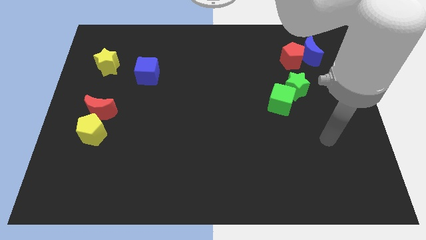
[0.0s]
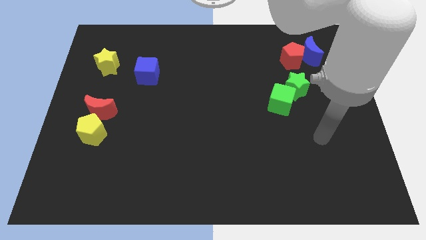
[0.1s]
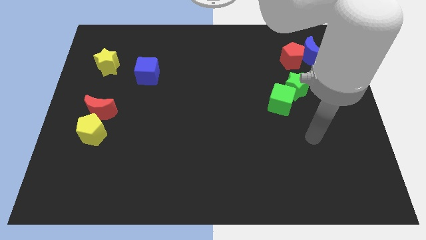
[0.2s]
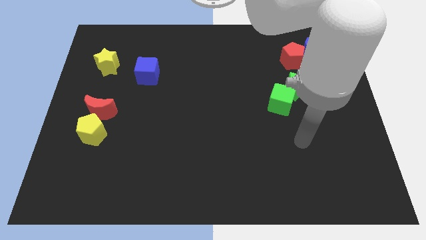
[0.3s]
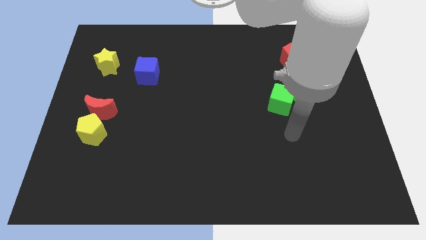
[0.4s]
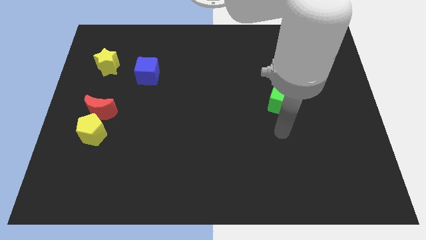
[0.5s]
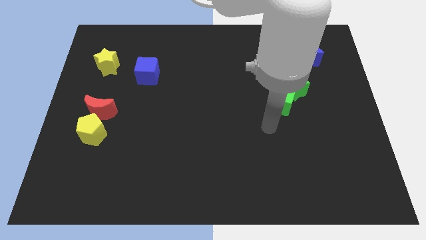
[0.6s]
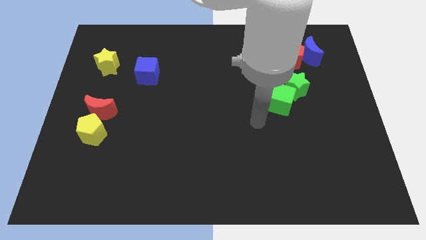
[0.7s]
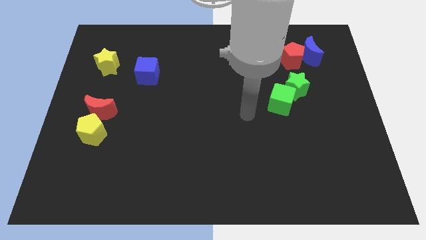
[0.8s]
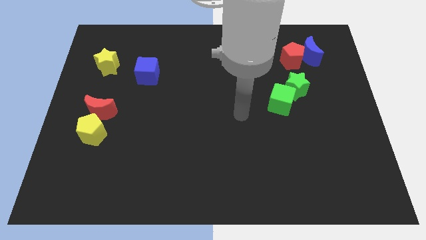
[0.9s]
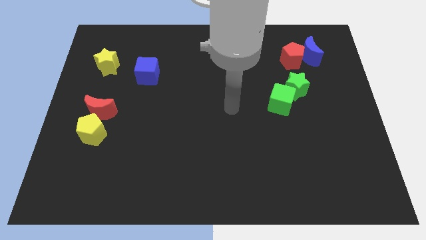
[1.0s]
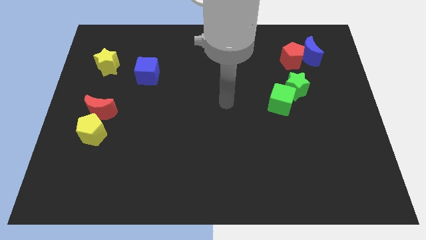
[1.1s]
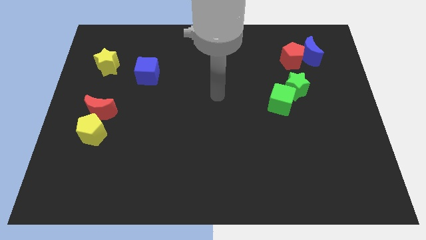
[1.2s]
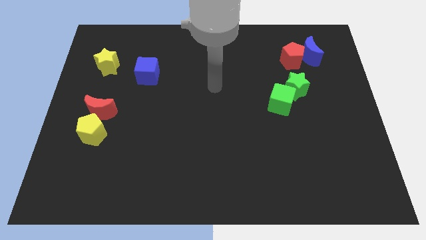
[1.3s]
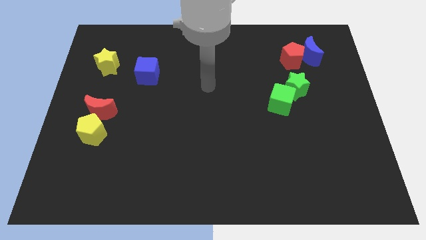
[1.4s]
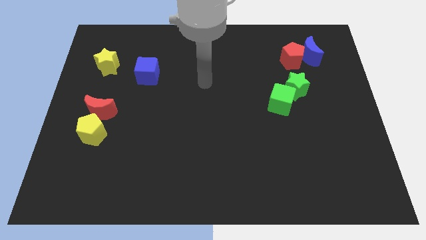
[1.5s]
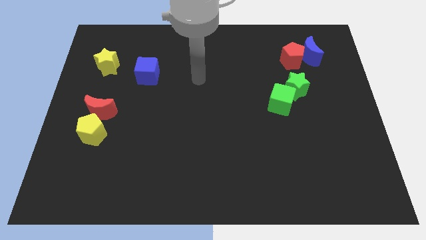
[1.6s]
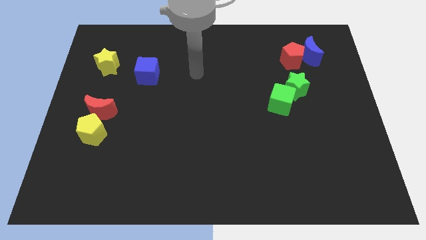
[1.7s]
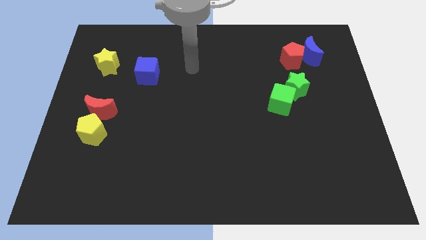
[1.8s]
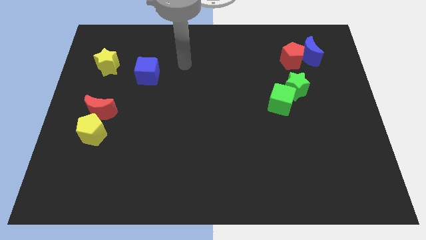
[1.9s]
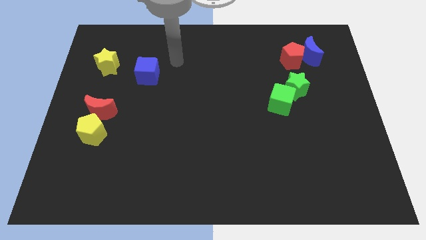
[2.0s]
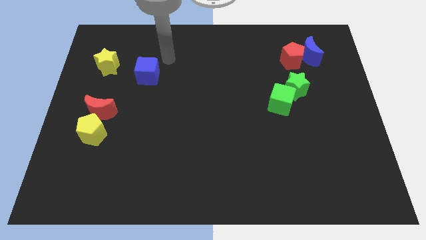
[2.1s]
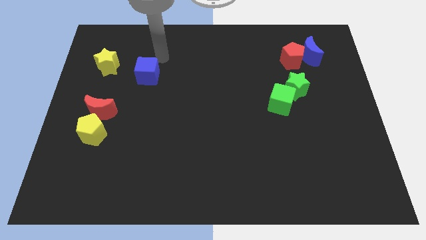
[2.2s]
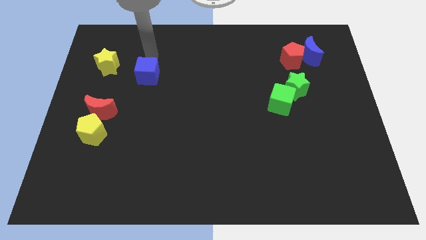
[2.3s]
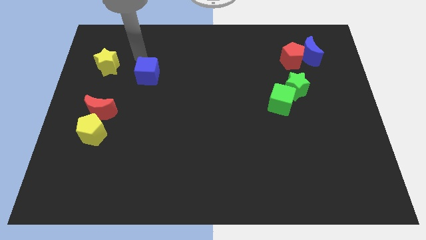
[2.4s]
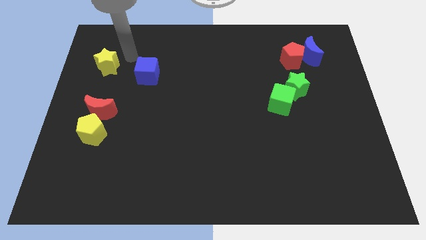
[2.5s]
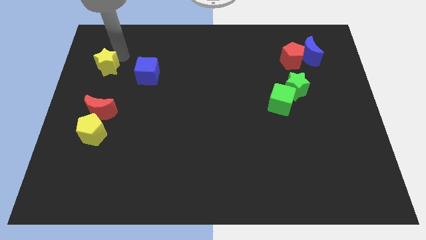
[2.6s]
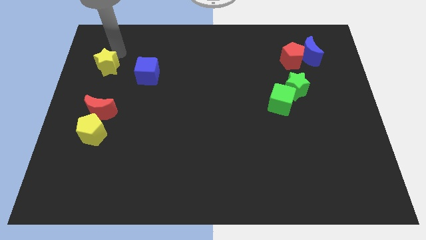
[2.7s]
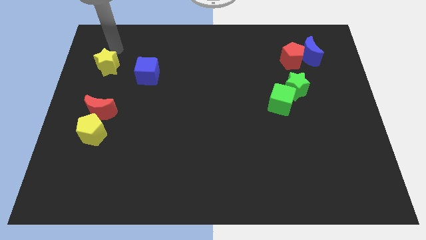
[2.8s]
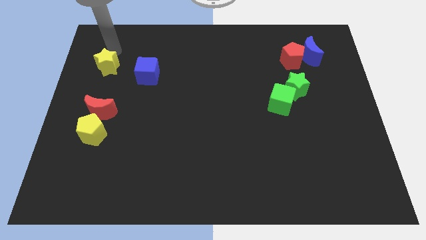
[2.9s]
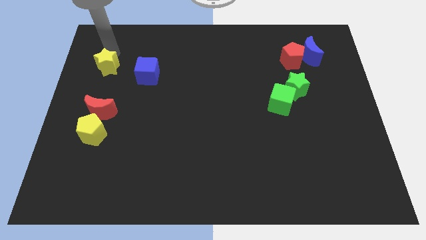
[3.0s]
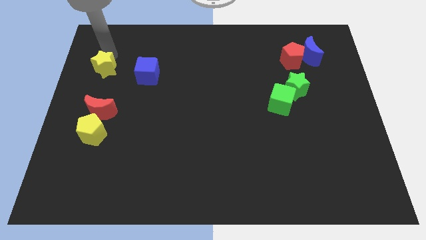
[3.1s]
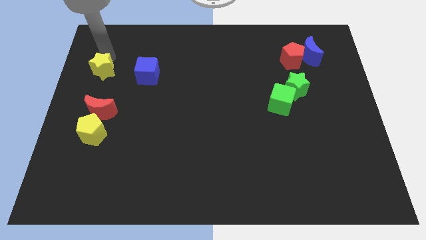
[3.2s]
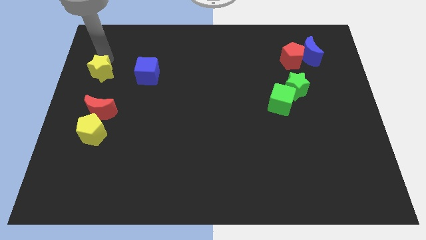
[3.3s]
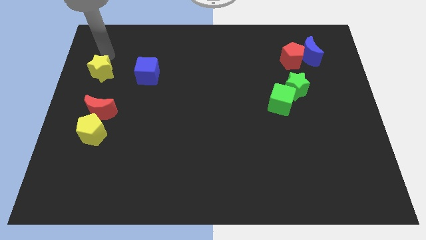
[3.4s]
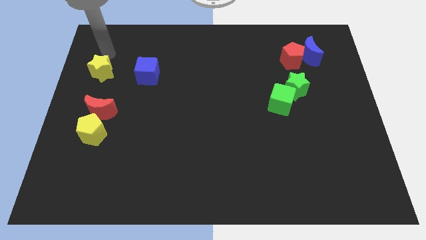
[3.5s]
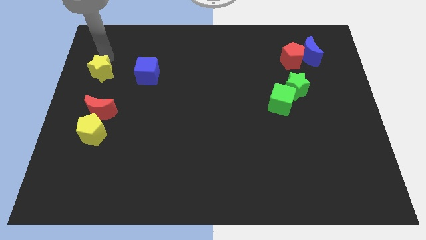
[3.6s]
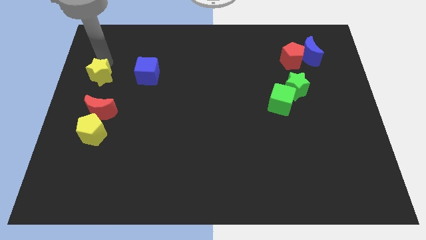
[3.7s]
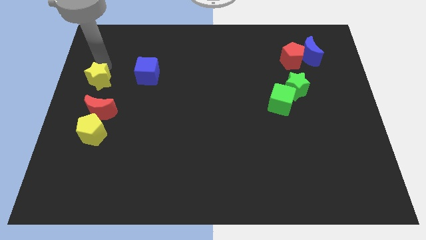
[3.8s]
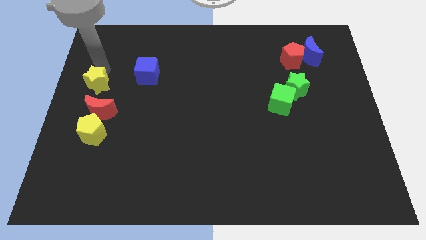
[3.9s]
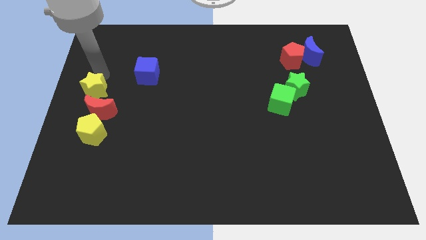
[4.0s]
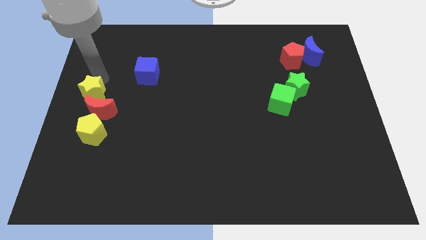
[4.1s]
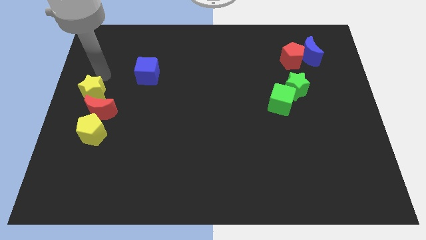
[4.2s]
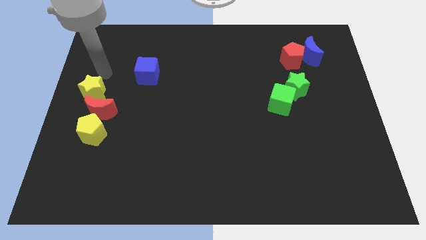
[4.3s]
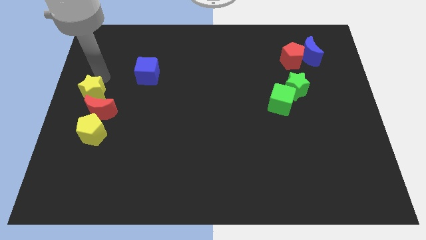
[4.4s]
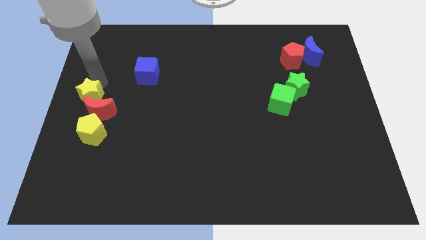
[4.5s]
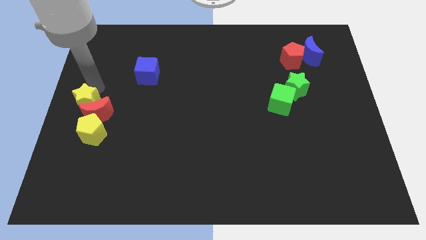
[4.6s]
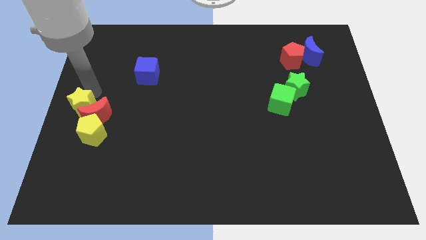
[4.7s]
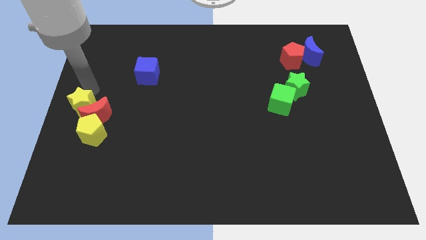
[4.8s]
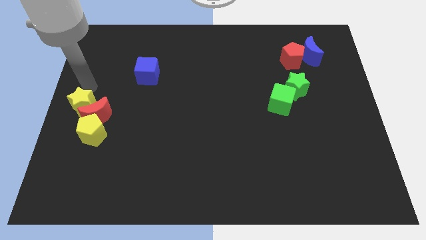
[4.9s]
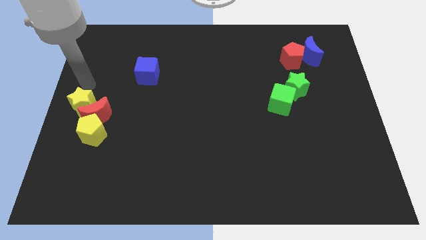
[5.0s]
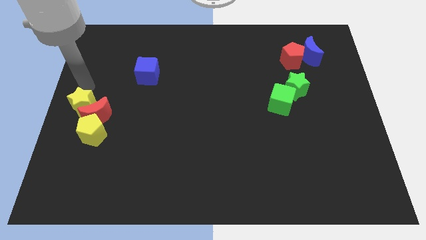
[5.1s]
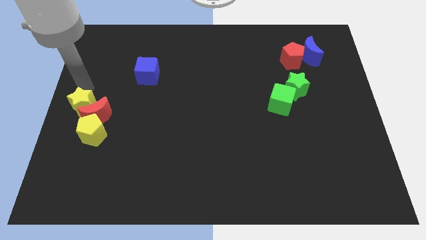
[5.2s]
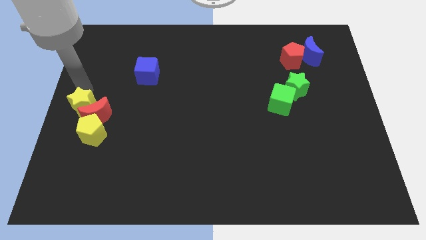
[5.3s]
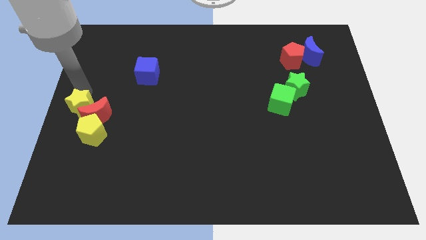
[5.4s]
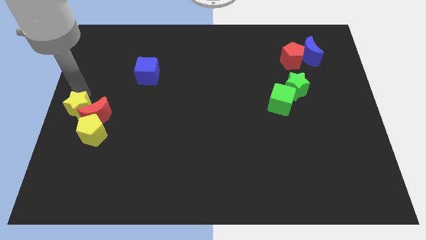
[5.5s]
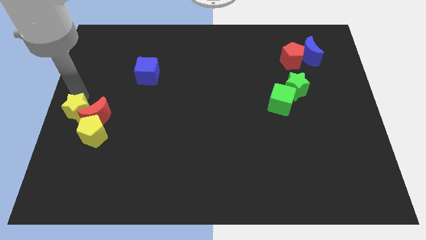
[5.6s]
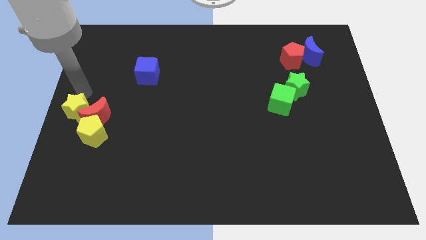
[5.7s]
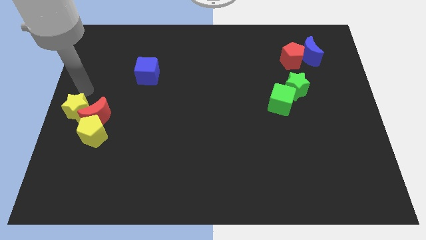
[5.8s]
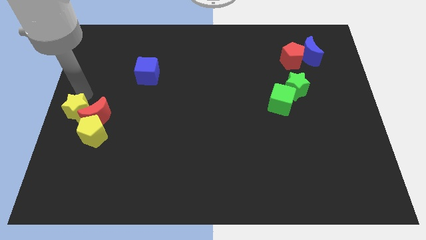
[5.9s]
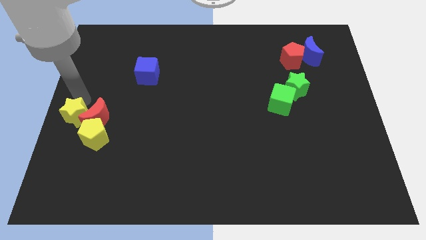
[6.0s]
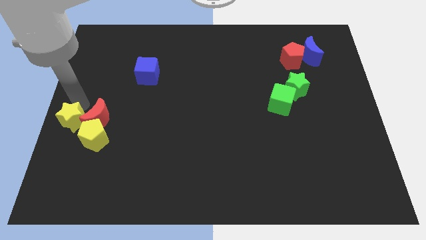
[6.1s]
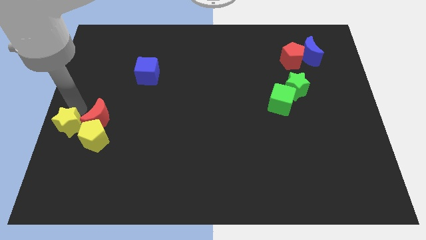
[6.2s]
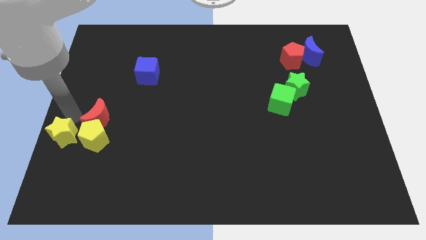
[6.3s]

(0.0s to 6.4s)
slide the yellow star downwards

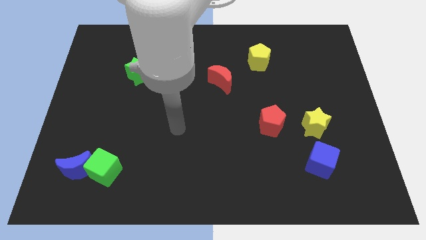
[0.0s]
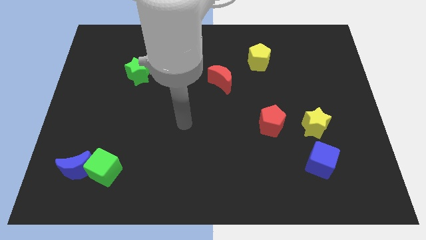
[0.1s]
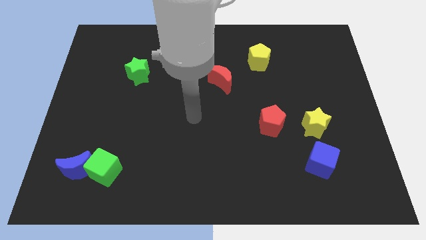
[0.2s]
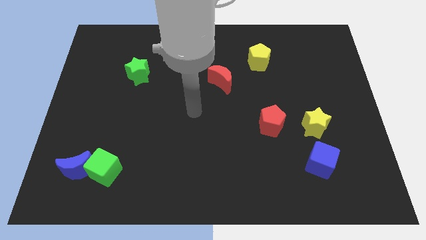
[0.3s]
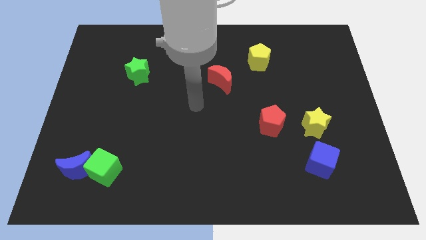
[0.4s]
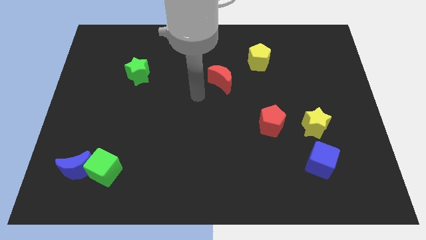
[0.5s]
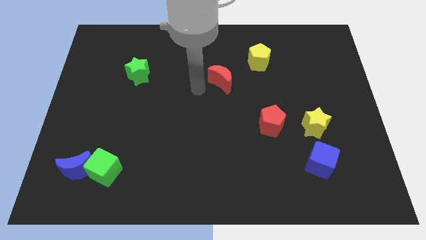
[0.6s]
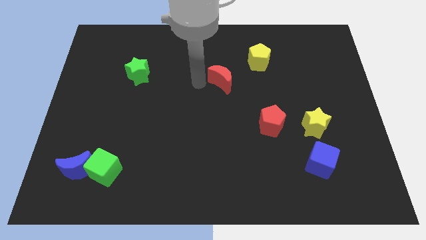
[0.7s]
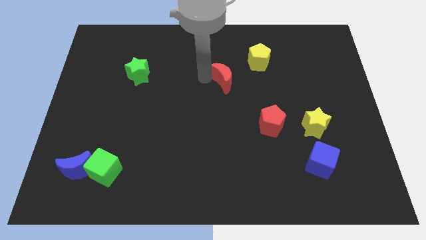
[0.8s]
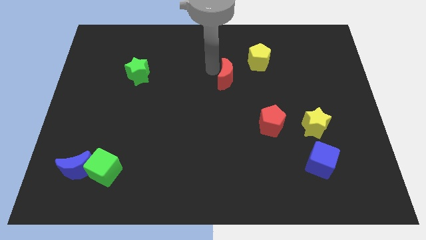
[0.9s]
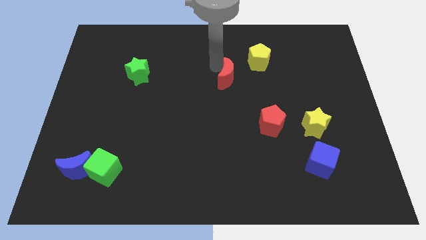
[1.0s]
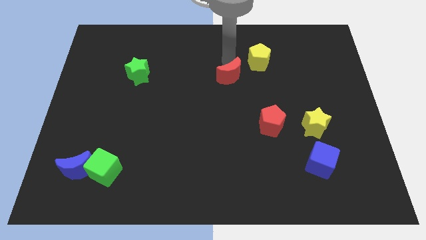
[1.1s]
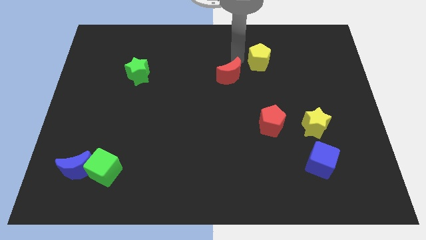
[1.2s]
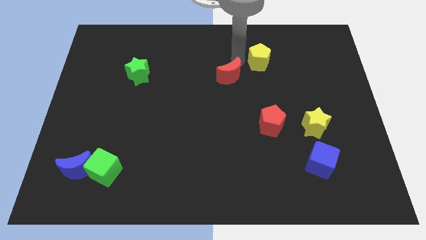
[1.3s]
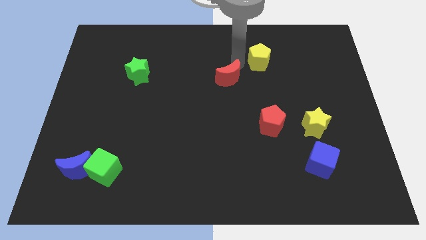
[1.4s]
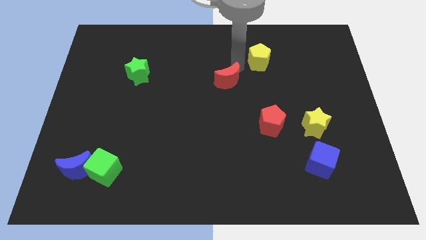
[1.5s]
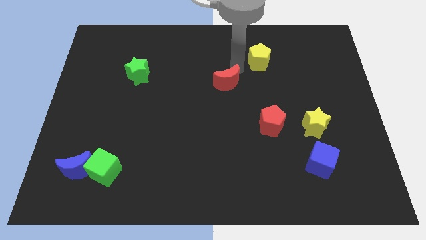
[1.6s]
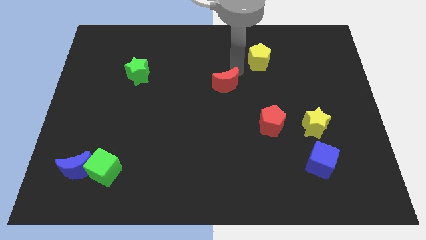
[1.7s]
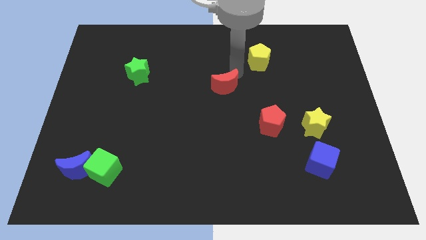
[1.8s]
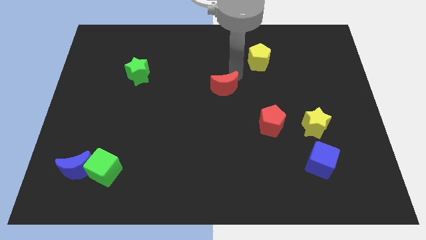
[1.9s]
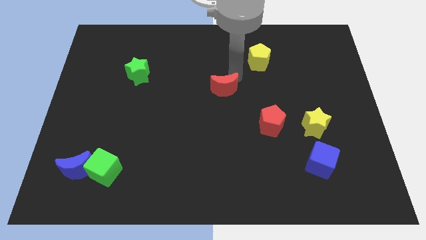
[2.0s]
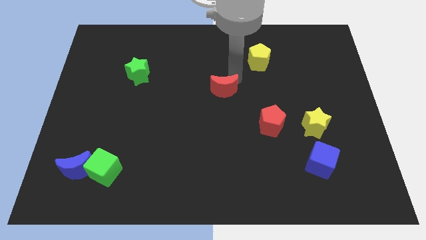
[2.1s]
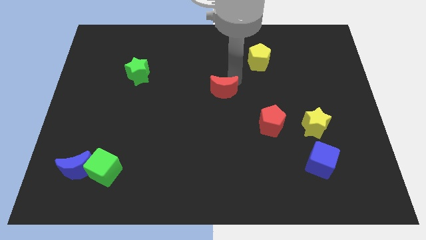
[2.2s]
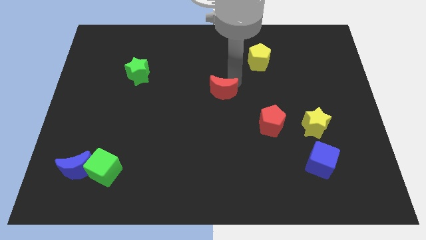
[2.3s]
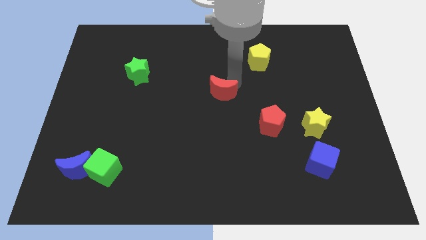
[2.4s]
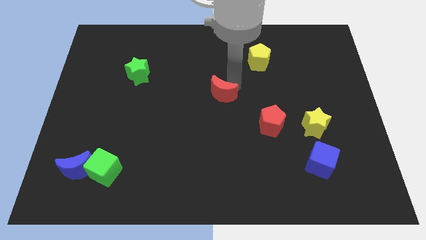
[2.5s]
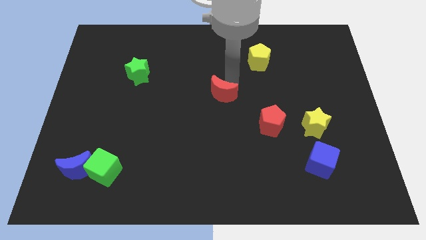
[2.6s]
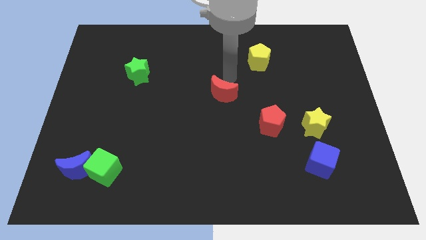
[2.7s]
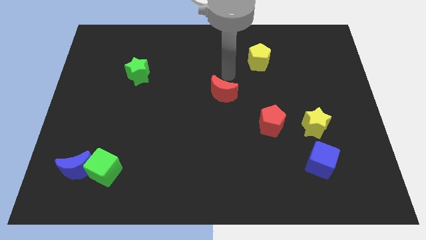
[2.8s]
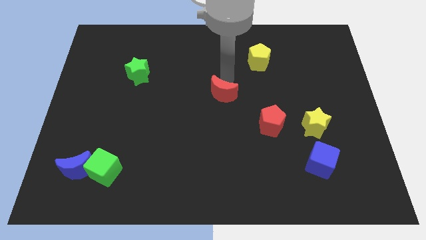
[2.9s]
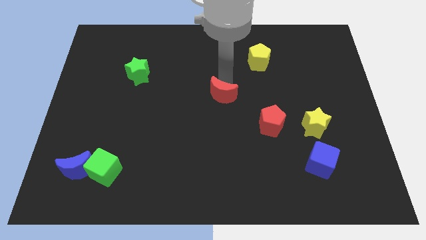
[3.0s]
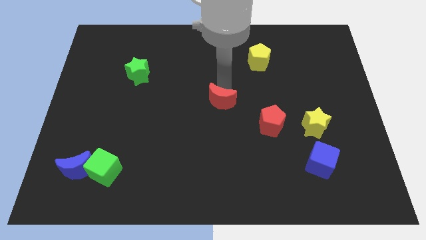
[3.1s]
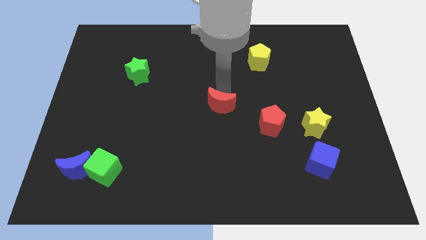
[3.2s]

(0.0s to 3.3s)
slightly push the red moon down
